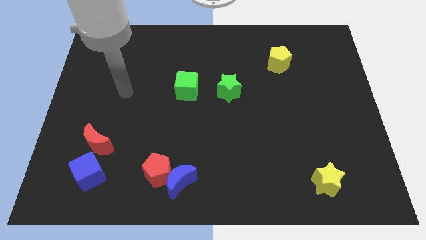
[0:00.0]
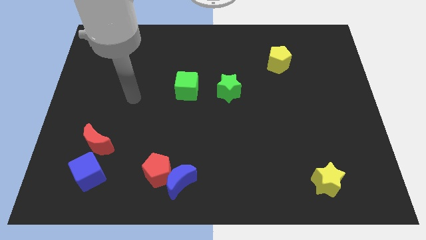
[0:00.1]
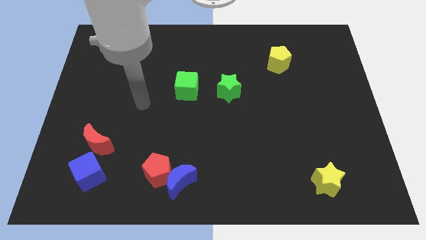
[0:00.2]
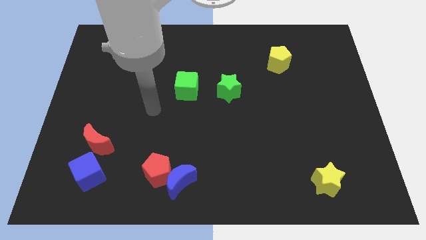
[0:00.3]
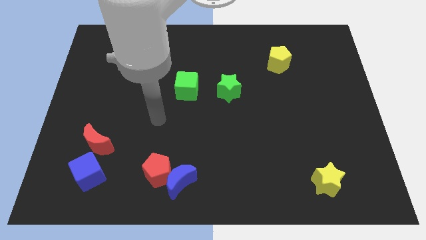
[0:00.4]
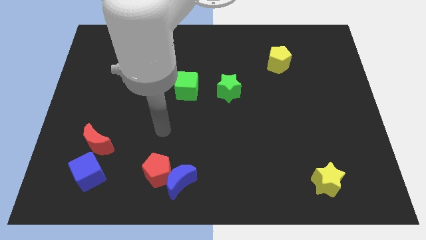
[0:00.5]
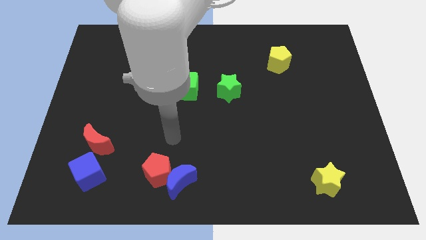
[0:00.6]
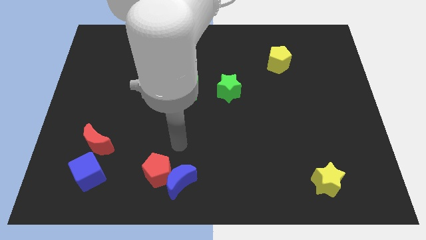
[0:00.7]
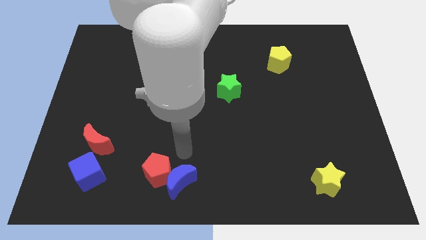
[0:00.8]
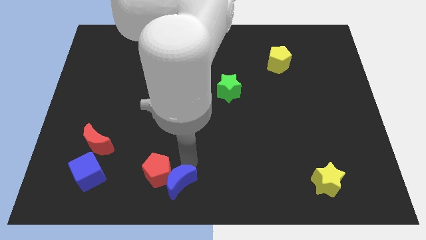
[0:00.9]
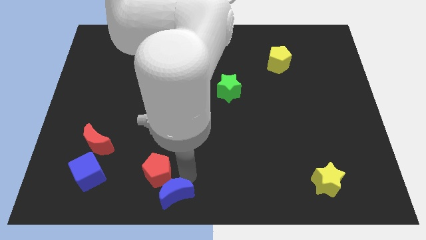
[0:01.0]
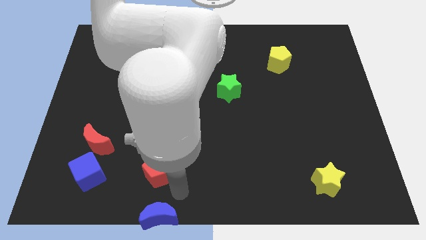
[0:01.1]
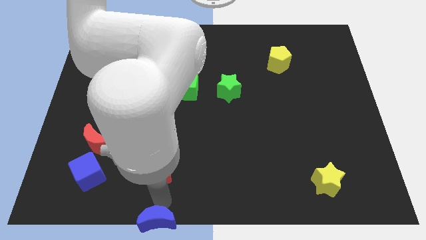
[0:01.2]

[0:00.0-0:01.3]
move the red pentagon away from the blue moon

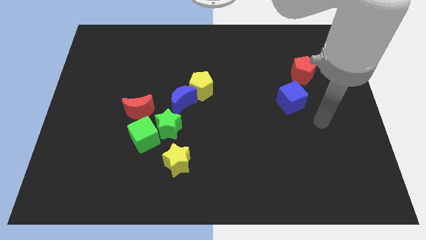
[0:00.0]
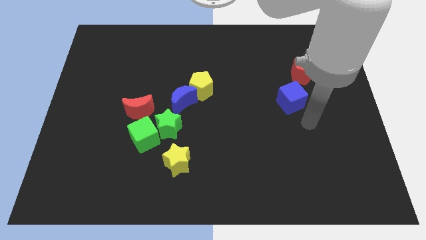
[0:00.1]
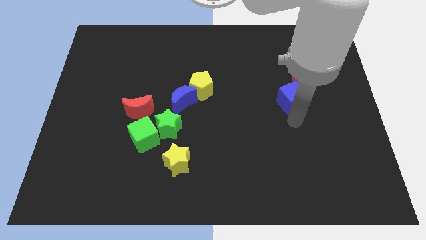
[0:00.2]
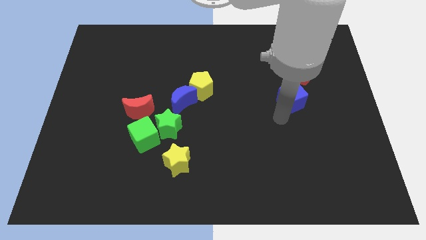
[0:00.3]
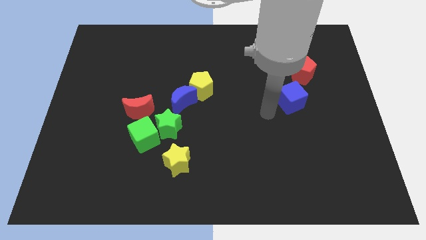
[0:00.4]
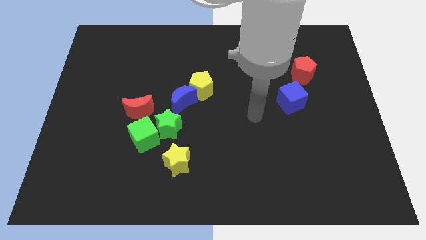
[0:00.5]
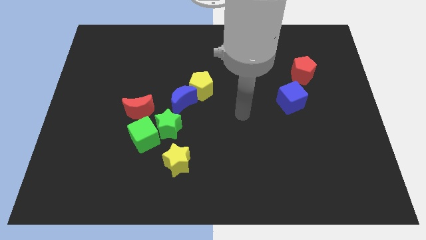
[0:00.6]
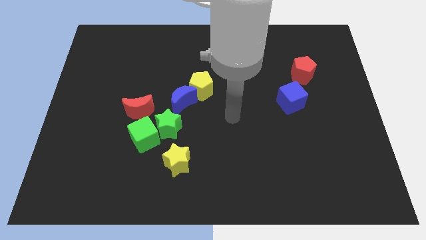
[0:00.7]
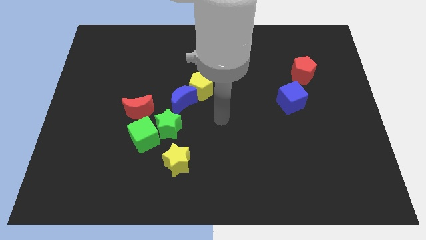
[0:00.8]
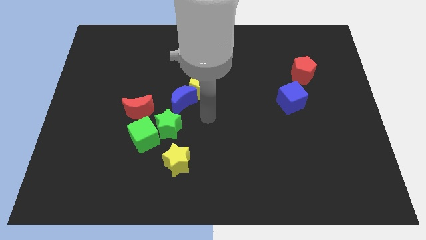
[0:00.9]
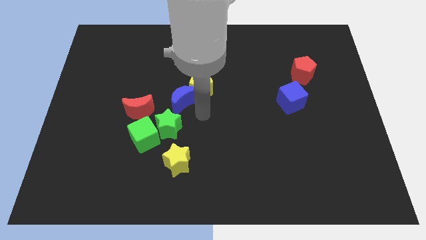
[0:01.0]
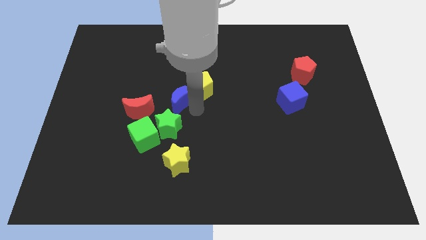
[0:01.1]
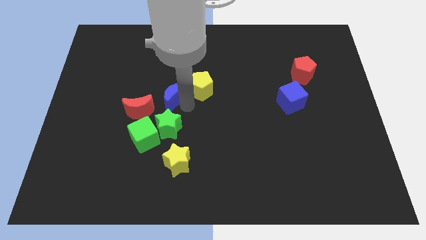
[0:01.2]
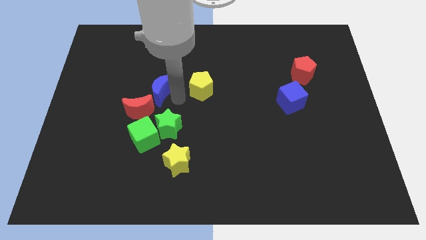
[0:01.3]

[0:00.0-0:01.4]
move the yellow pentagon away from the blue moon

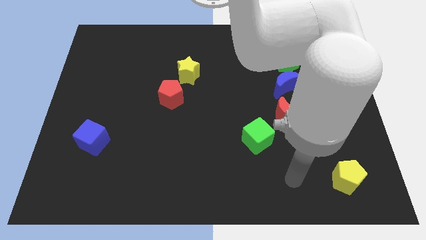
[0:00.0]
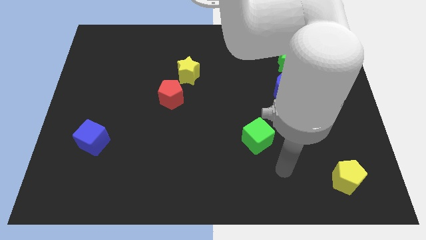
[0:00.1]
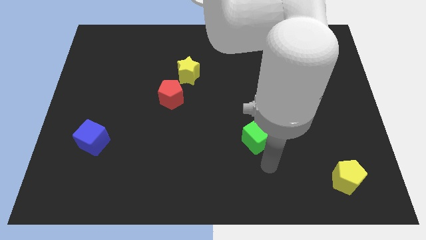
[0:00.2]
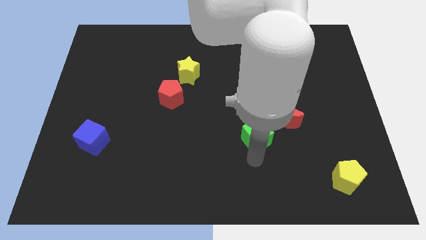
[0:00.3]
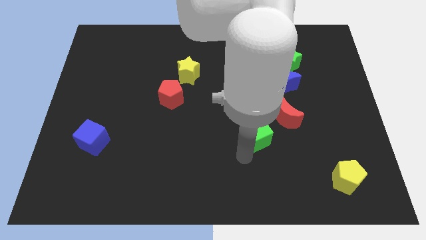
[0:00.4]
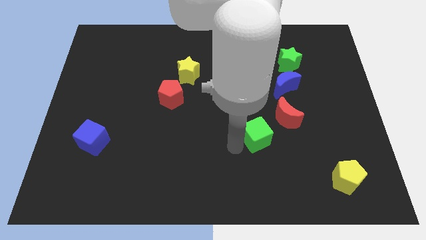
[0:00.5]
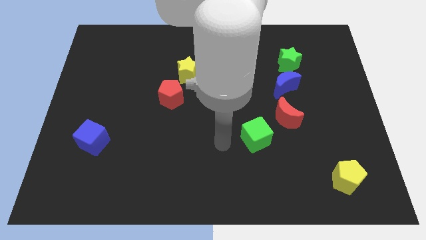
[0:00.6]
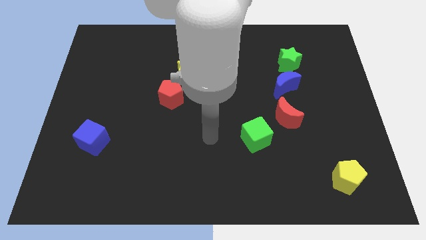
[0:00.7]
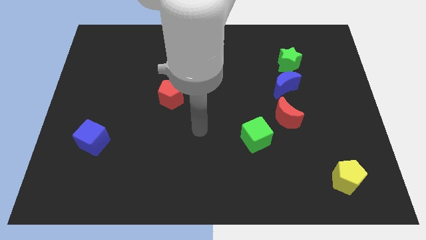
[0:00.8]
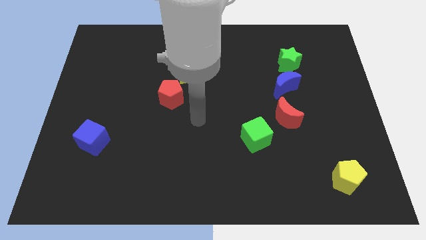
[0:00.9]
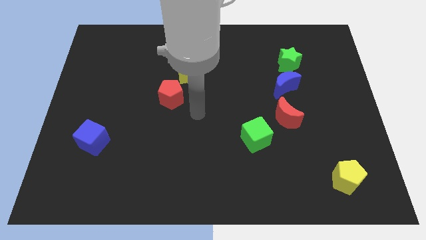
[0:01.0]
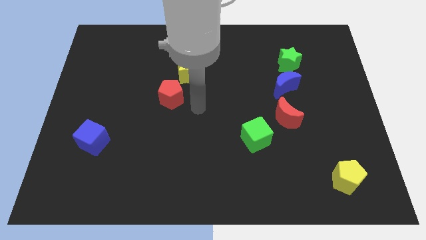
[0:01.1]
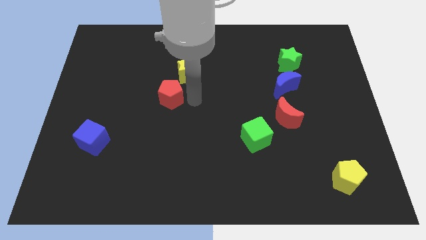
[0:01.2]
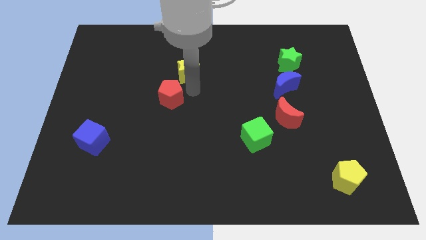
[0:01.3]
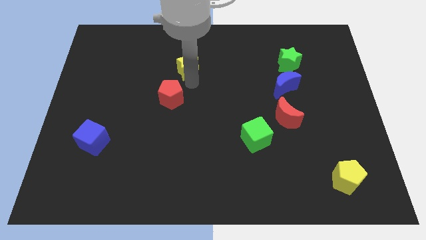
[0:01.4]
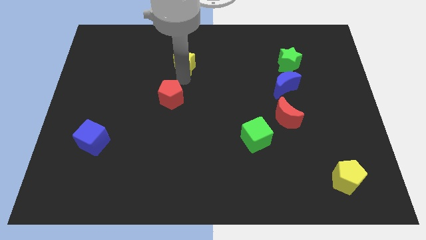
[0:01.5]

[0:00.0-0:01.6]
pull the red pentagon apart from the yellow star

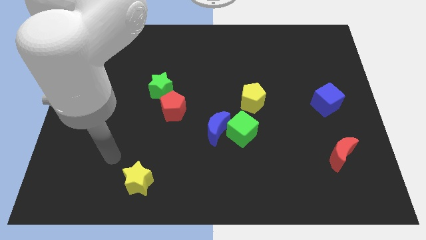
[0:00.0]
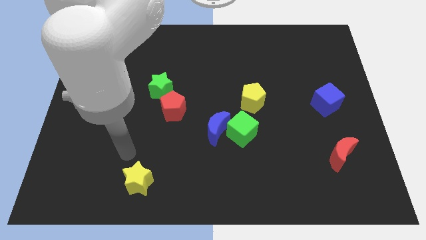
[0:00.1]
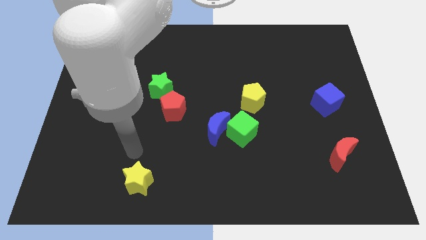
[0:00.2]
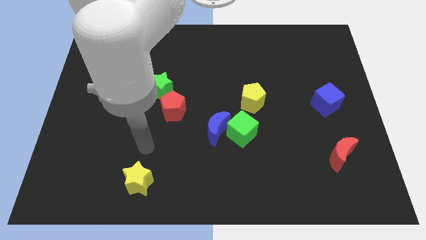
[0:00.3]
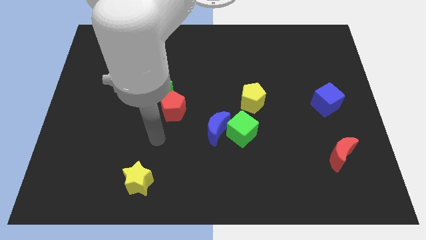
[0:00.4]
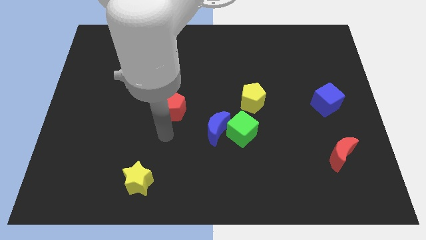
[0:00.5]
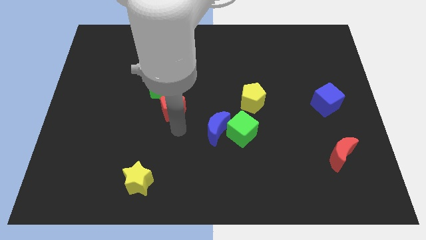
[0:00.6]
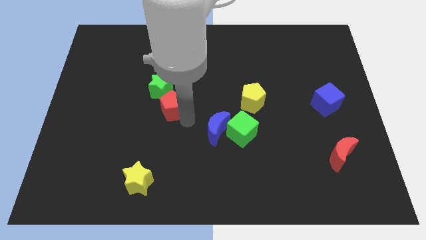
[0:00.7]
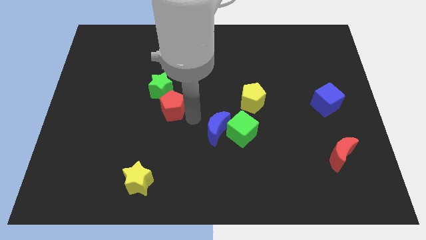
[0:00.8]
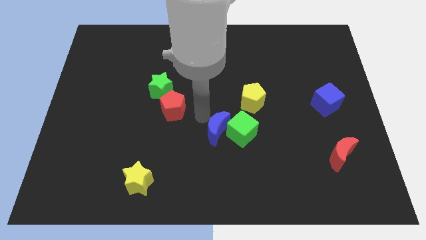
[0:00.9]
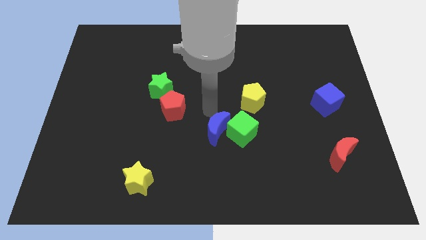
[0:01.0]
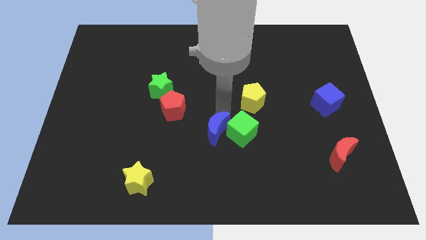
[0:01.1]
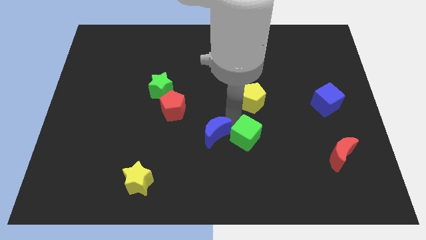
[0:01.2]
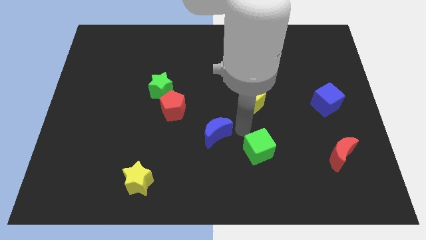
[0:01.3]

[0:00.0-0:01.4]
move the blue moon away from the green cube

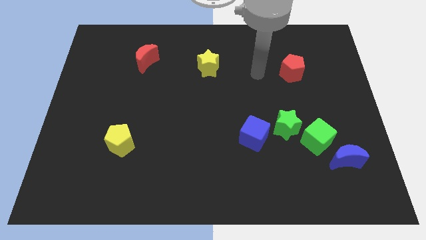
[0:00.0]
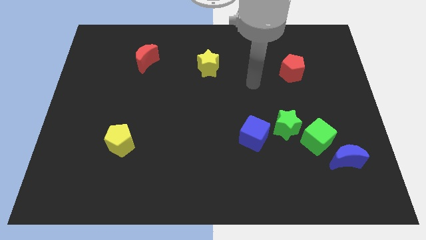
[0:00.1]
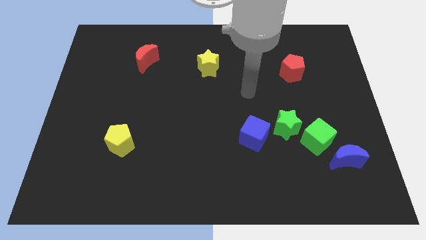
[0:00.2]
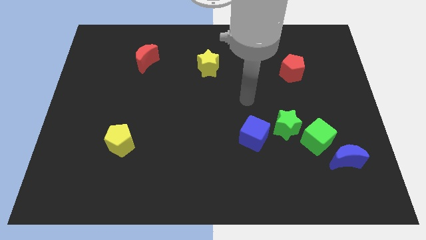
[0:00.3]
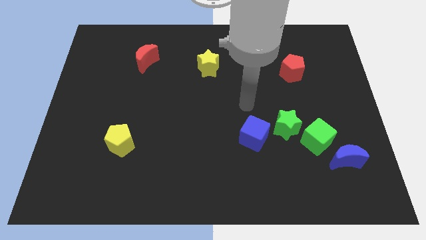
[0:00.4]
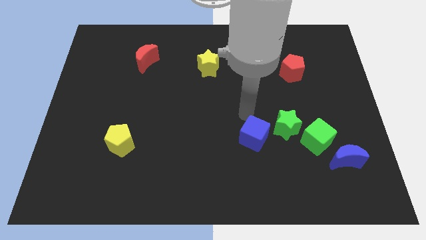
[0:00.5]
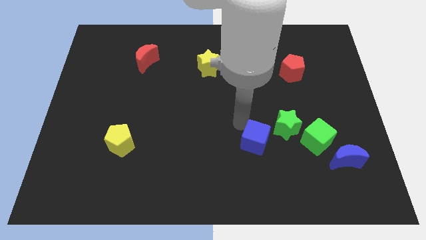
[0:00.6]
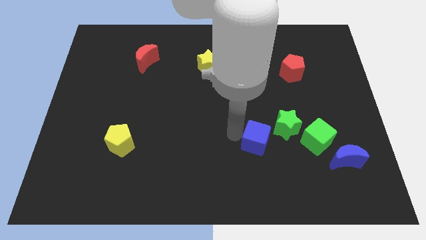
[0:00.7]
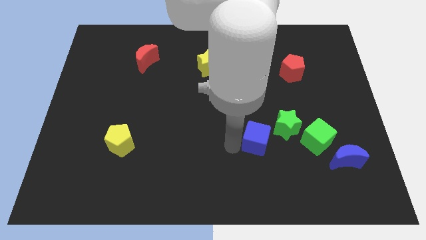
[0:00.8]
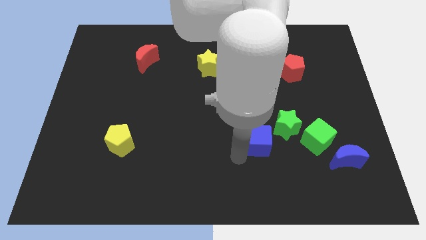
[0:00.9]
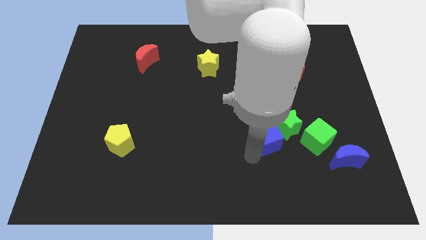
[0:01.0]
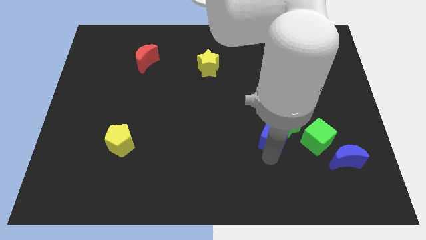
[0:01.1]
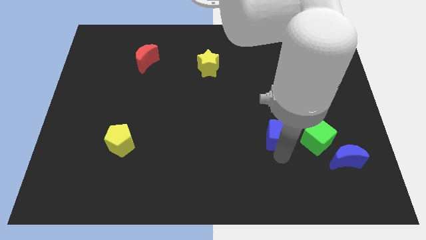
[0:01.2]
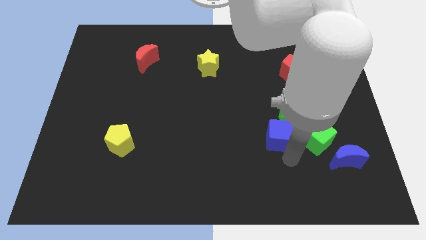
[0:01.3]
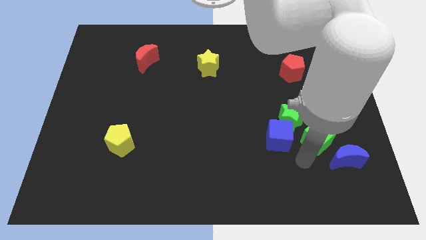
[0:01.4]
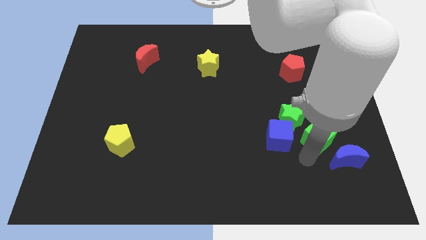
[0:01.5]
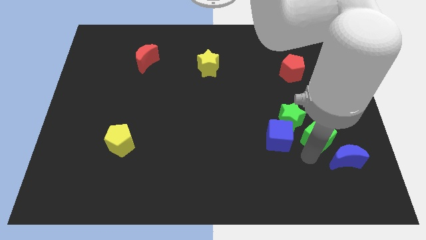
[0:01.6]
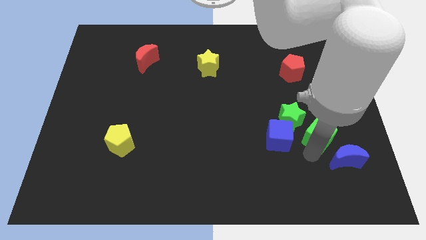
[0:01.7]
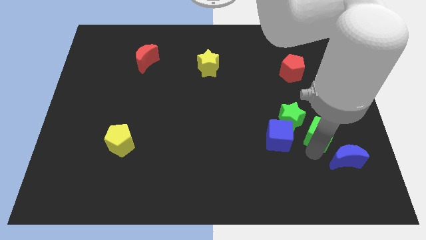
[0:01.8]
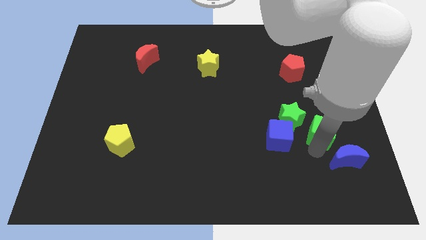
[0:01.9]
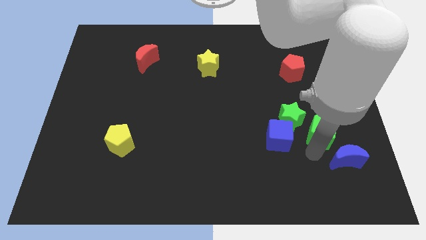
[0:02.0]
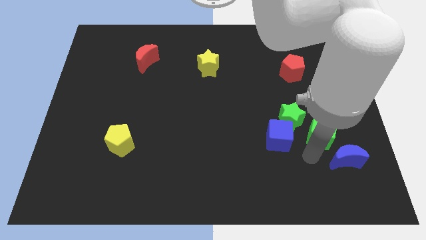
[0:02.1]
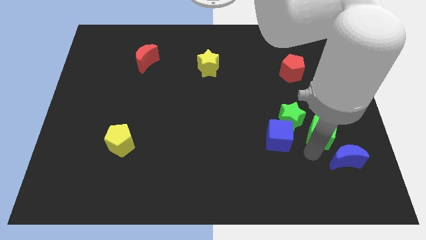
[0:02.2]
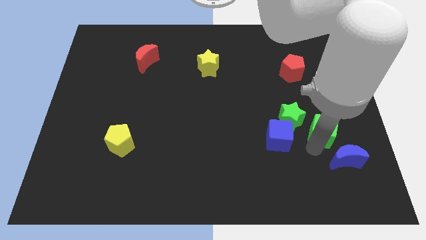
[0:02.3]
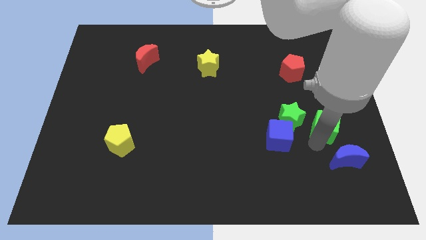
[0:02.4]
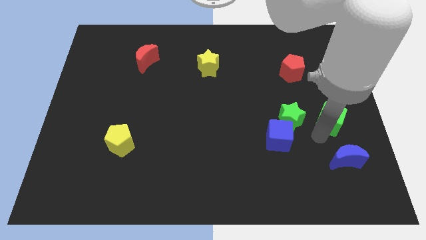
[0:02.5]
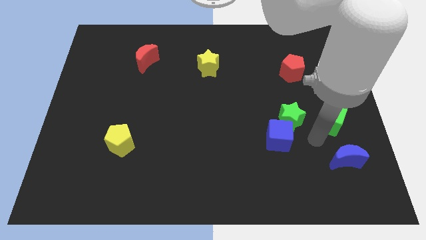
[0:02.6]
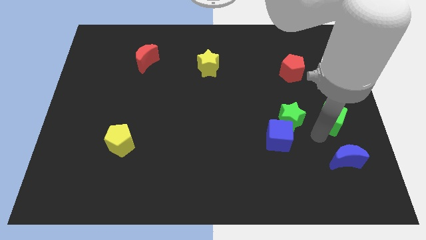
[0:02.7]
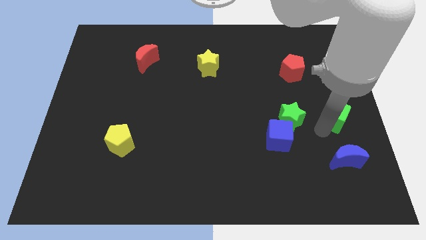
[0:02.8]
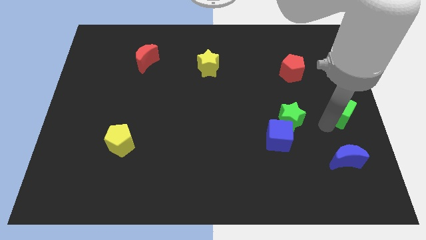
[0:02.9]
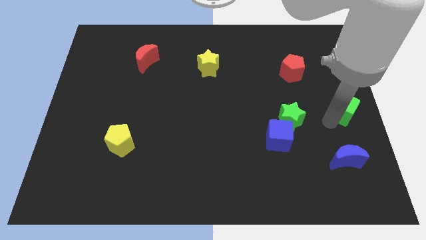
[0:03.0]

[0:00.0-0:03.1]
pull the green cube apart from the green star and blue moon

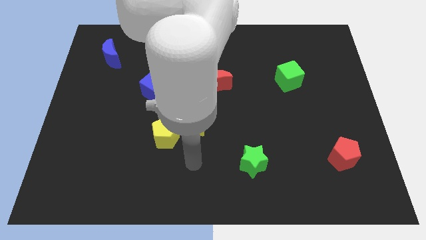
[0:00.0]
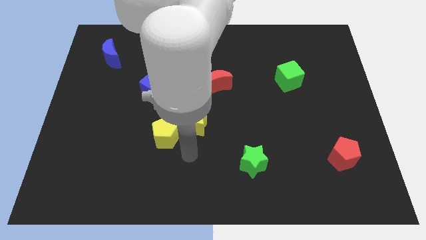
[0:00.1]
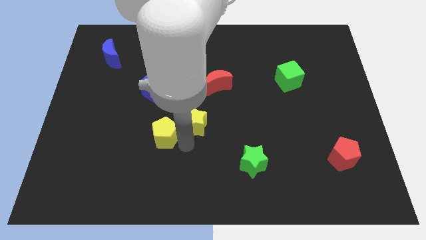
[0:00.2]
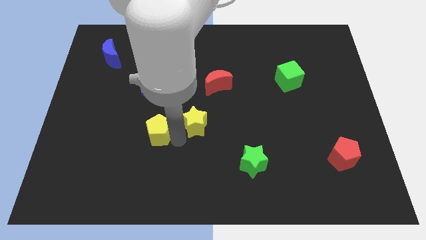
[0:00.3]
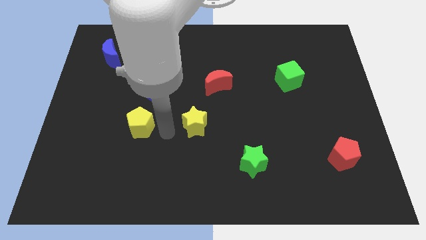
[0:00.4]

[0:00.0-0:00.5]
separate the yellow star from the yellow pentagon
